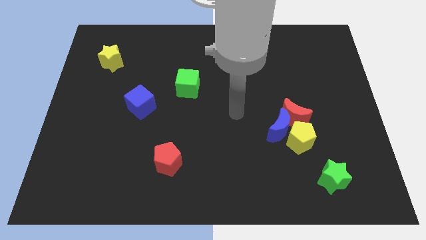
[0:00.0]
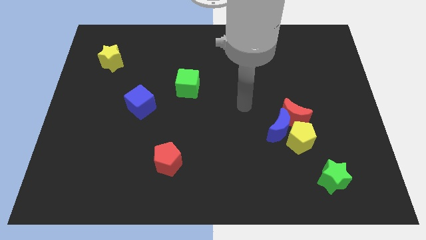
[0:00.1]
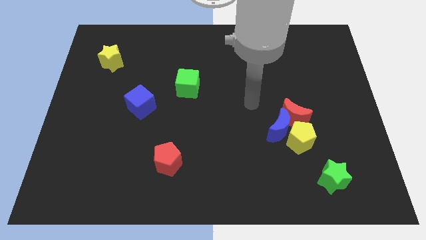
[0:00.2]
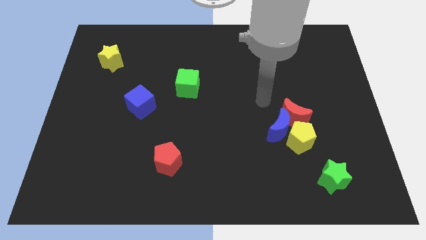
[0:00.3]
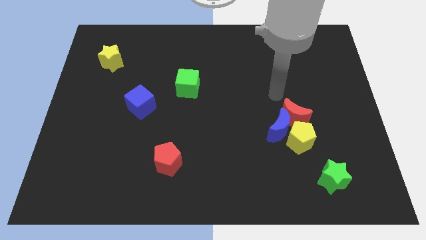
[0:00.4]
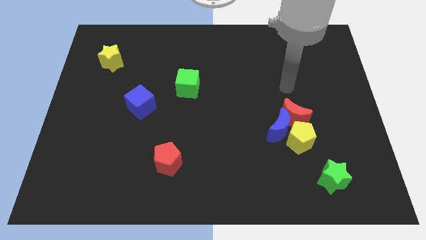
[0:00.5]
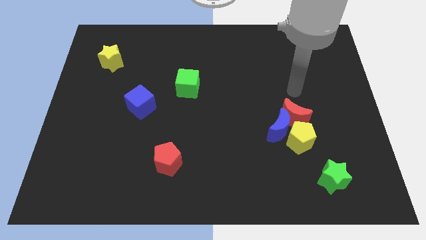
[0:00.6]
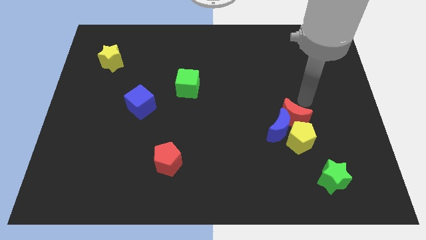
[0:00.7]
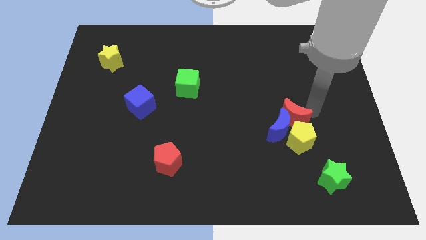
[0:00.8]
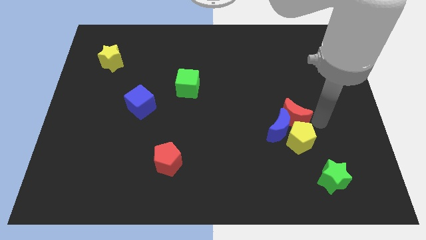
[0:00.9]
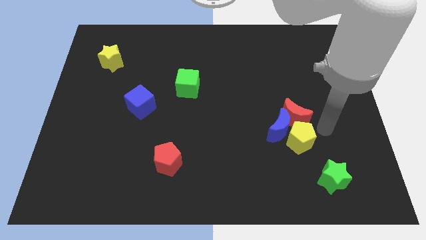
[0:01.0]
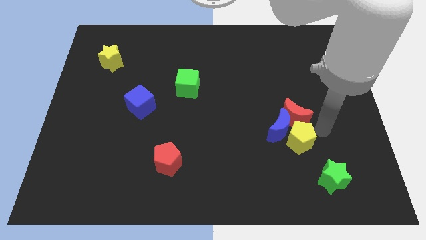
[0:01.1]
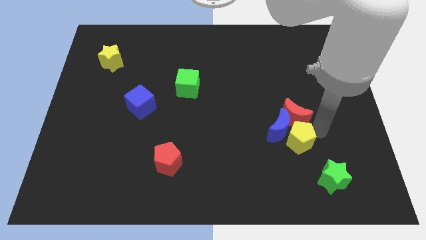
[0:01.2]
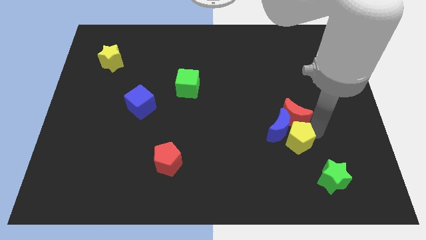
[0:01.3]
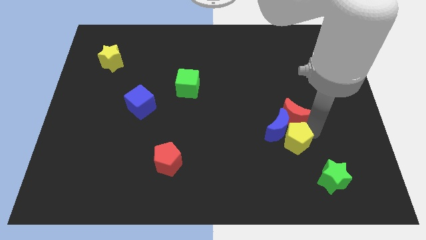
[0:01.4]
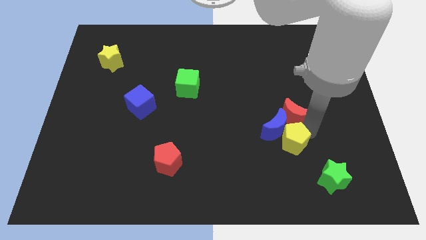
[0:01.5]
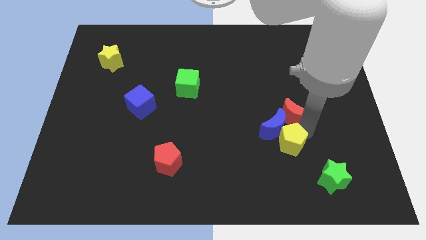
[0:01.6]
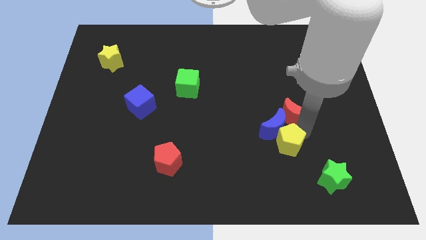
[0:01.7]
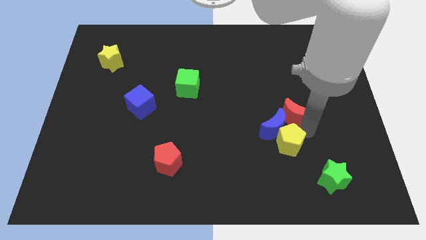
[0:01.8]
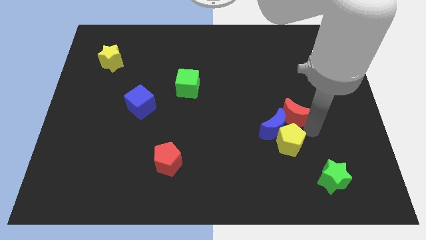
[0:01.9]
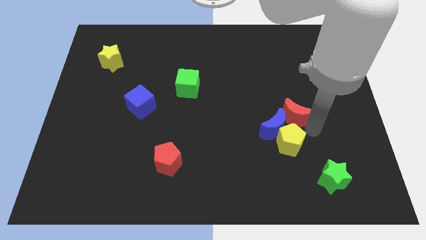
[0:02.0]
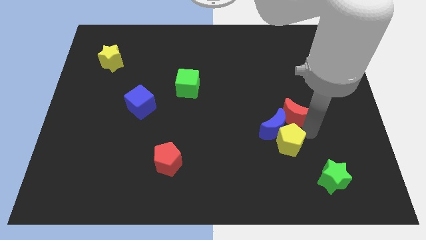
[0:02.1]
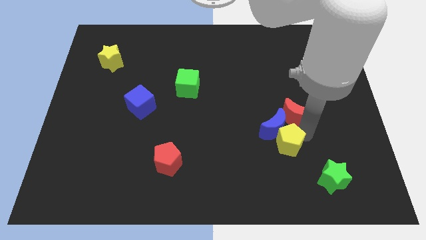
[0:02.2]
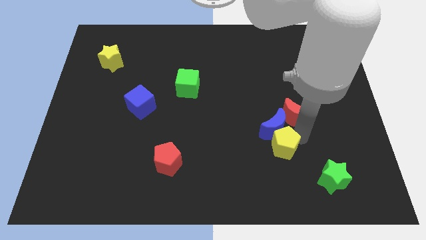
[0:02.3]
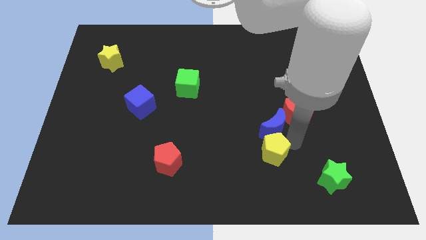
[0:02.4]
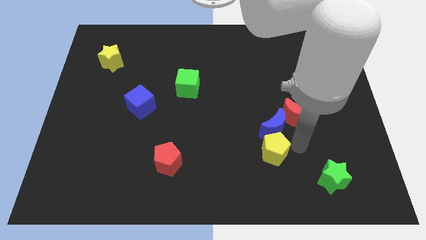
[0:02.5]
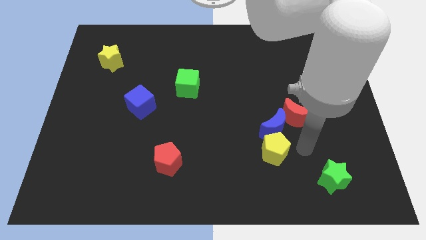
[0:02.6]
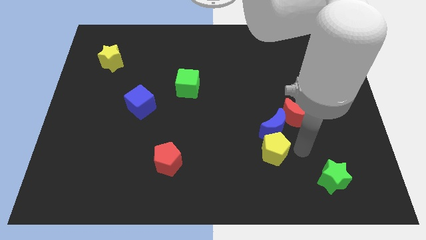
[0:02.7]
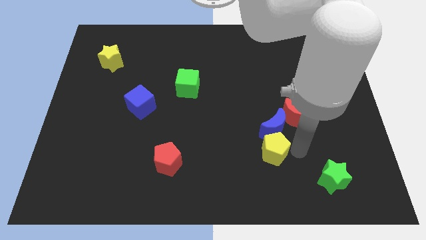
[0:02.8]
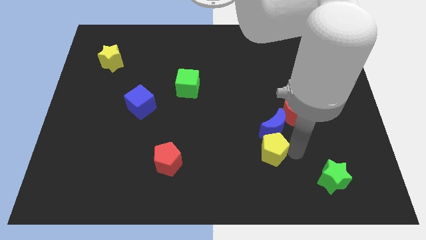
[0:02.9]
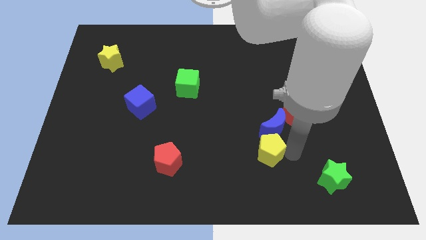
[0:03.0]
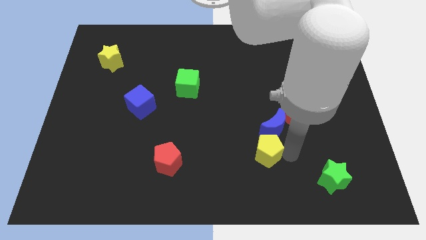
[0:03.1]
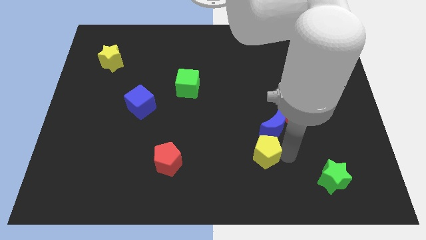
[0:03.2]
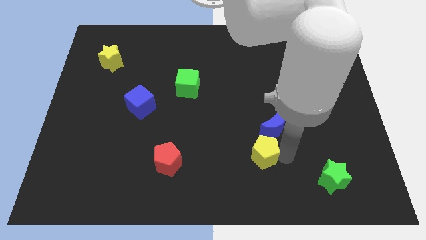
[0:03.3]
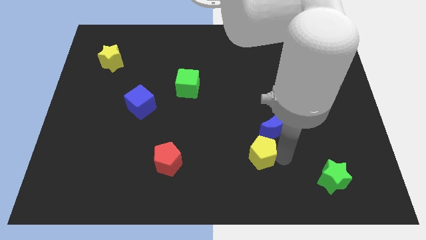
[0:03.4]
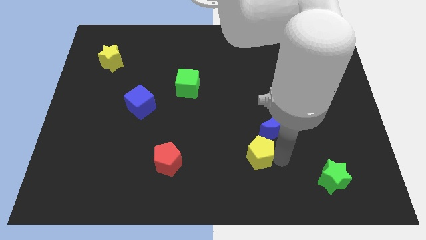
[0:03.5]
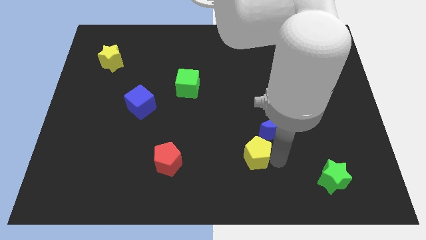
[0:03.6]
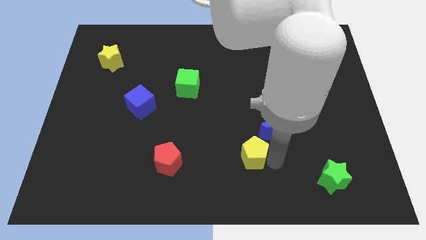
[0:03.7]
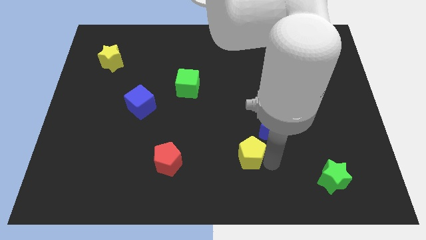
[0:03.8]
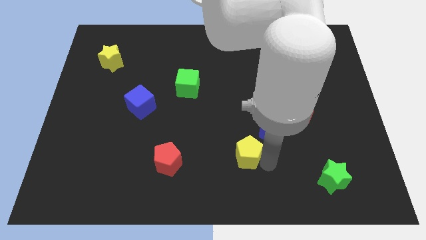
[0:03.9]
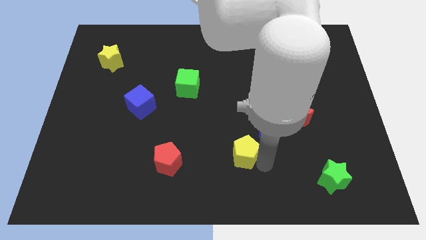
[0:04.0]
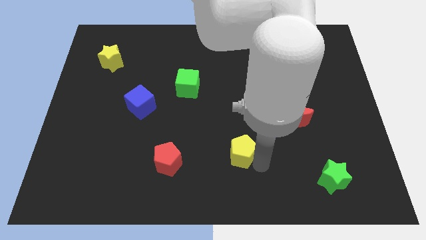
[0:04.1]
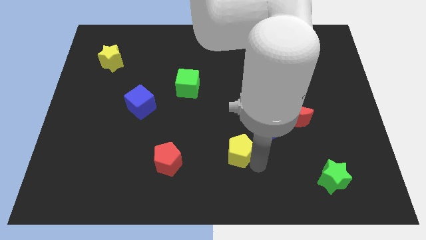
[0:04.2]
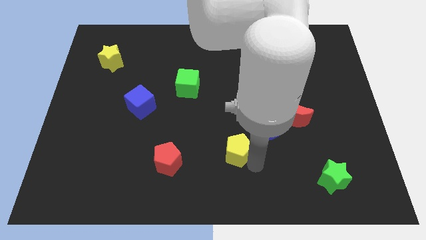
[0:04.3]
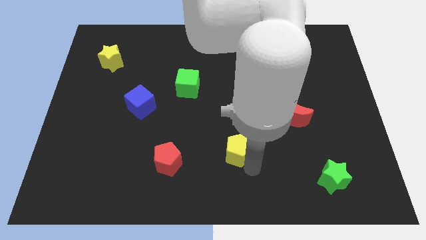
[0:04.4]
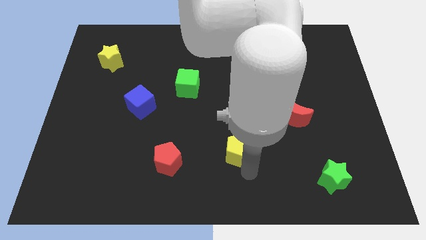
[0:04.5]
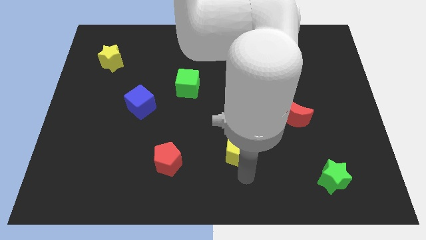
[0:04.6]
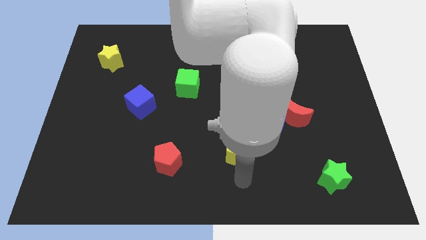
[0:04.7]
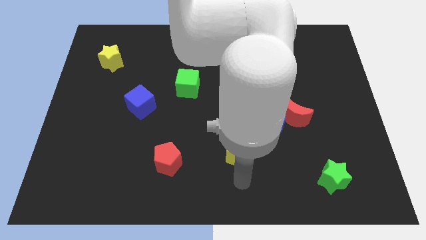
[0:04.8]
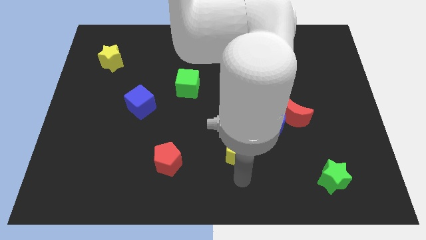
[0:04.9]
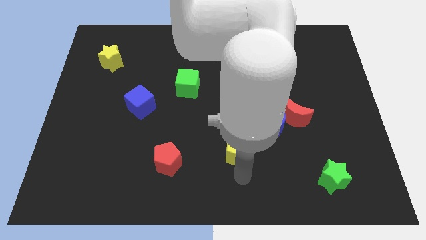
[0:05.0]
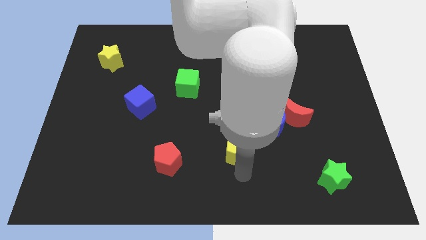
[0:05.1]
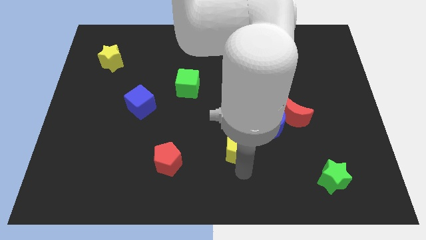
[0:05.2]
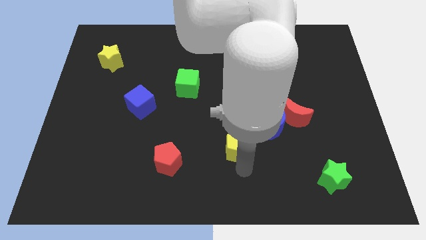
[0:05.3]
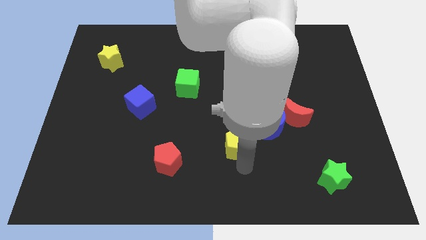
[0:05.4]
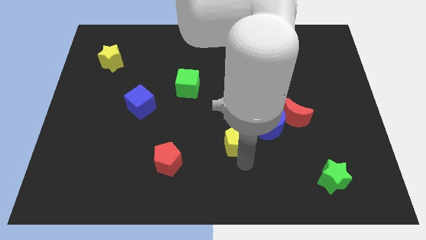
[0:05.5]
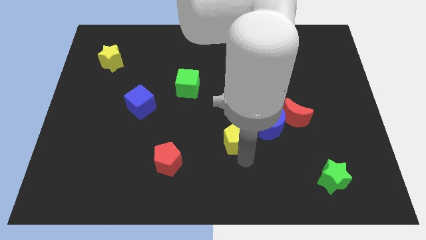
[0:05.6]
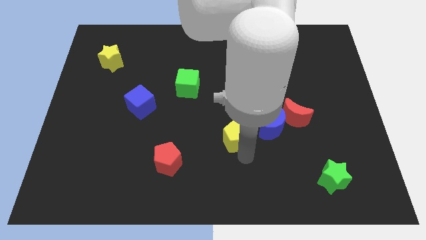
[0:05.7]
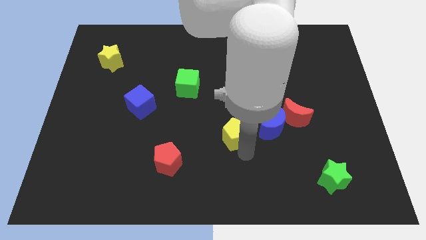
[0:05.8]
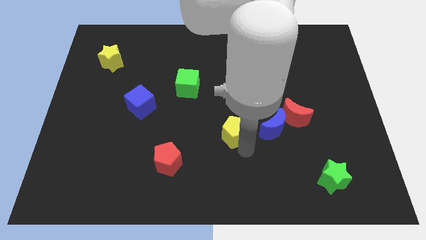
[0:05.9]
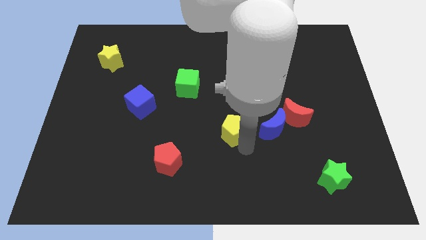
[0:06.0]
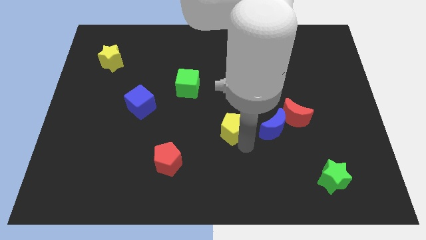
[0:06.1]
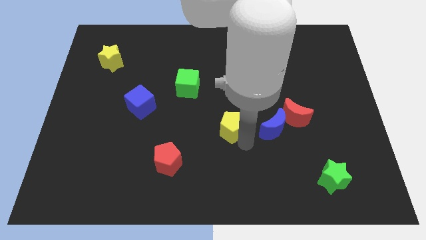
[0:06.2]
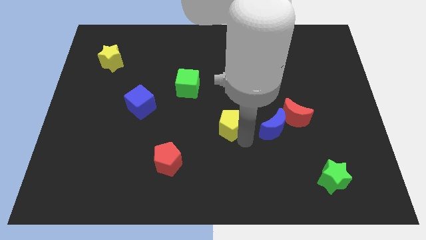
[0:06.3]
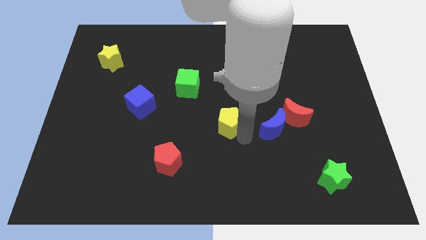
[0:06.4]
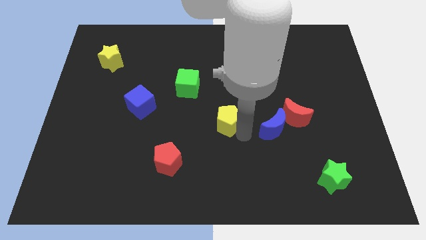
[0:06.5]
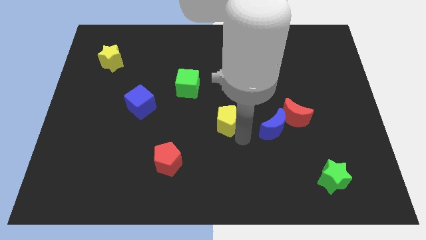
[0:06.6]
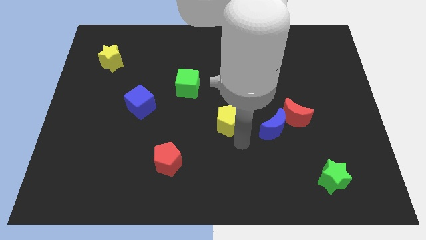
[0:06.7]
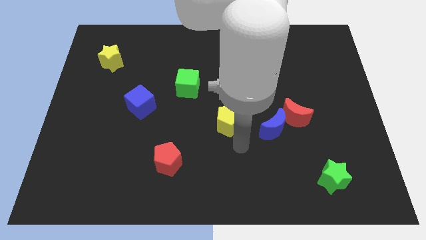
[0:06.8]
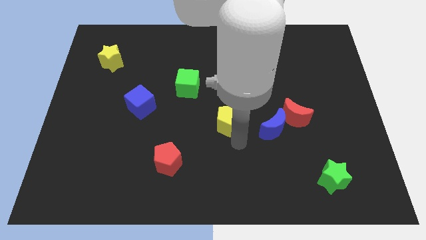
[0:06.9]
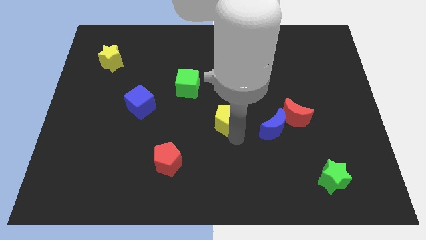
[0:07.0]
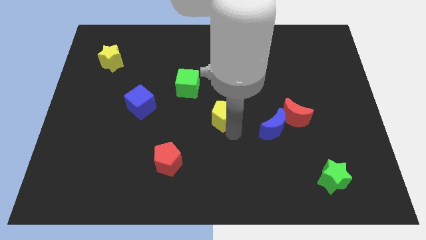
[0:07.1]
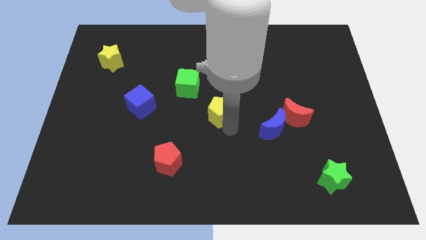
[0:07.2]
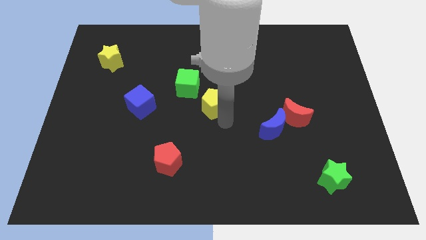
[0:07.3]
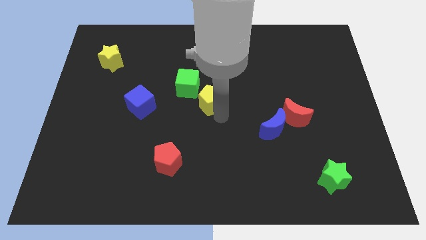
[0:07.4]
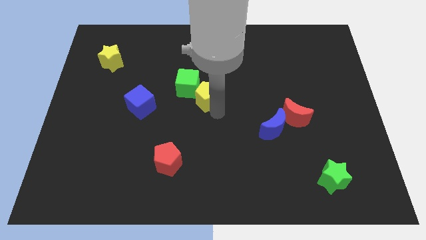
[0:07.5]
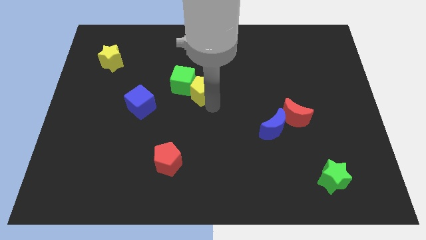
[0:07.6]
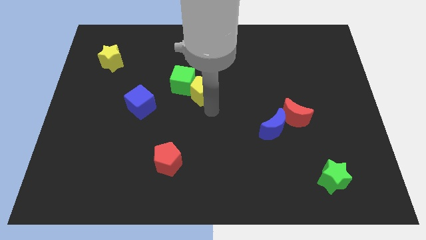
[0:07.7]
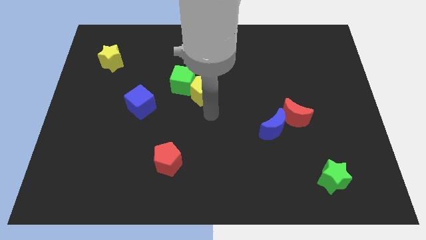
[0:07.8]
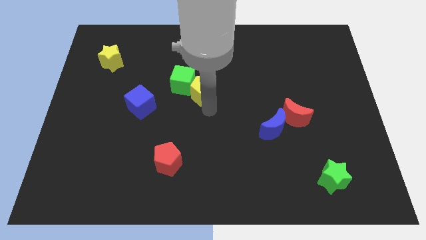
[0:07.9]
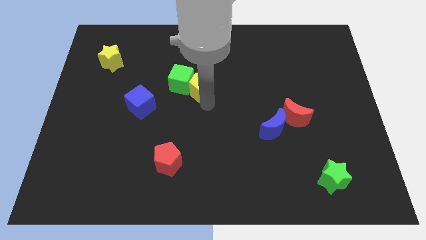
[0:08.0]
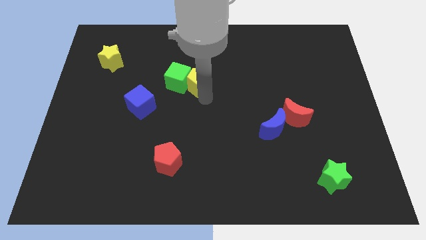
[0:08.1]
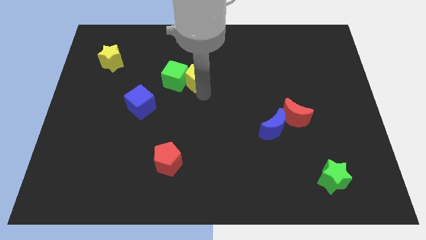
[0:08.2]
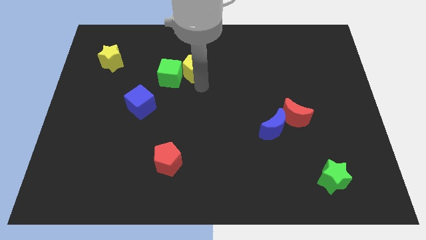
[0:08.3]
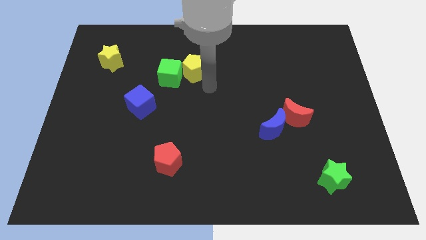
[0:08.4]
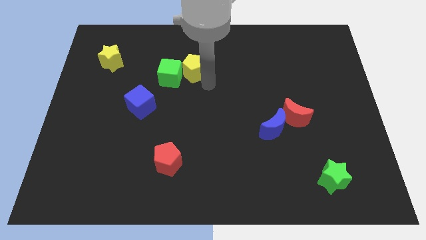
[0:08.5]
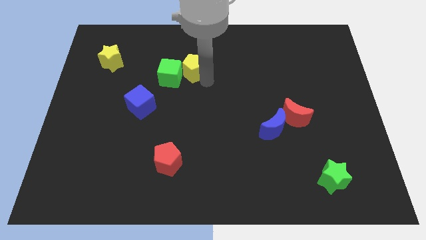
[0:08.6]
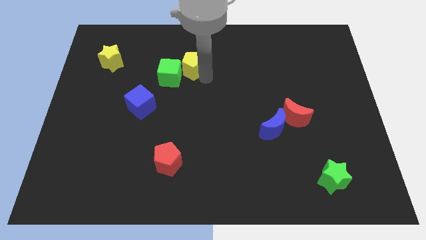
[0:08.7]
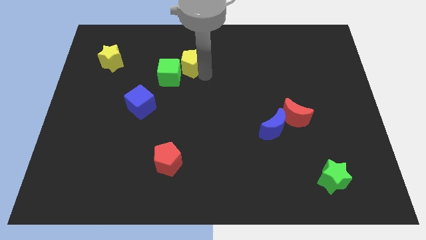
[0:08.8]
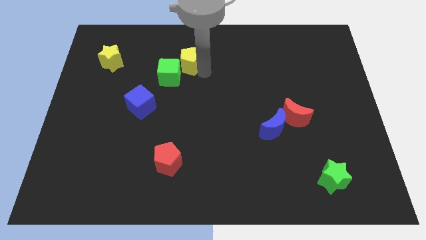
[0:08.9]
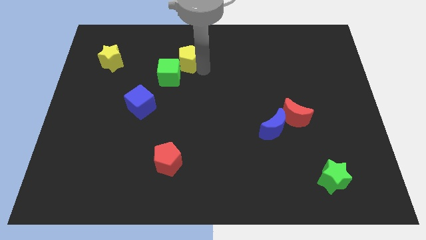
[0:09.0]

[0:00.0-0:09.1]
put the yellow pentagon above the green cube
